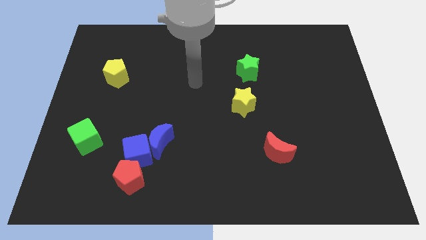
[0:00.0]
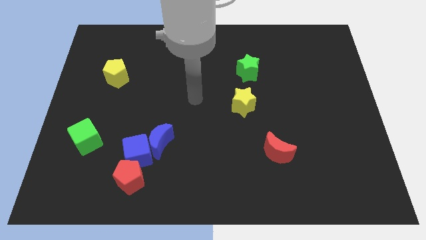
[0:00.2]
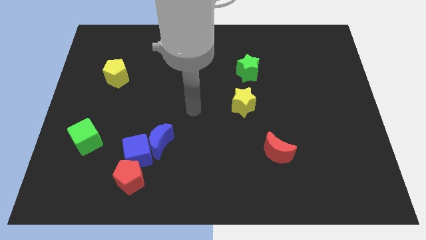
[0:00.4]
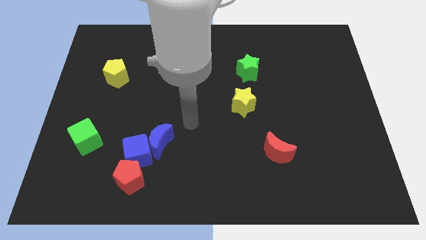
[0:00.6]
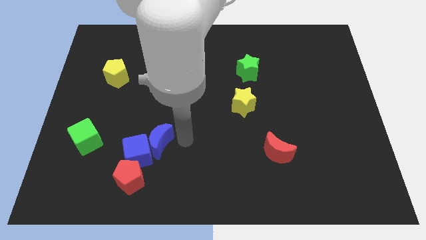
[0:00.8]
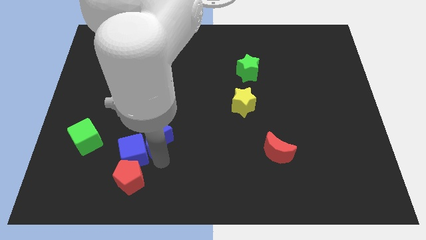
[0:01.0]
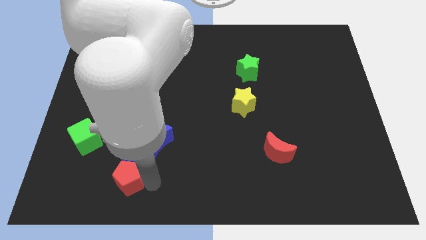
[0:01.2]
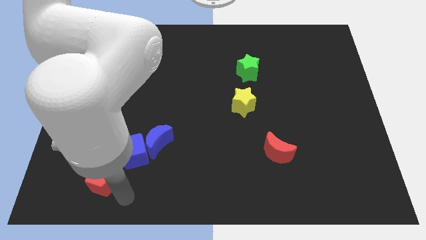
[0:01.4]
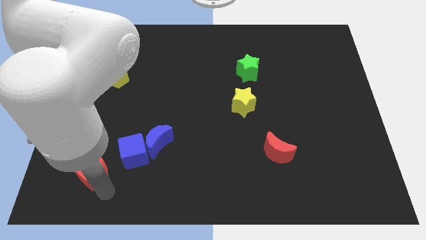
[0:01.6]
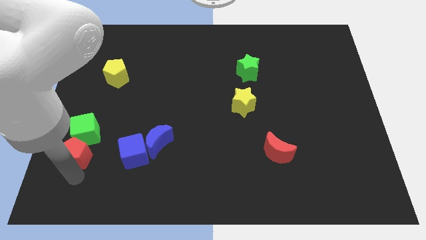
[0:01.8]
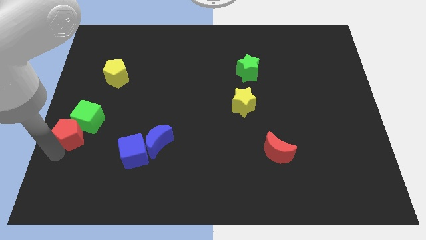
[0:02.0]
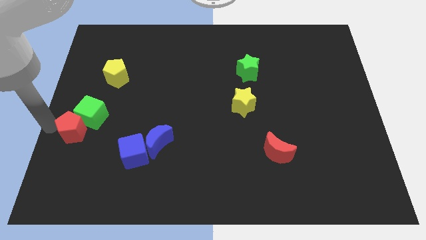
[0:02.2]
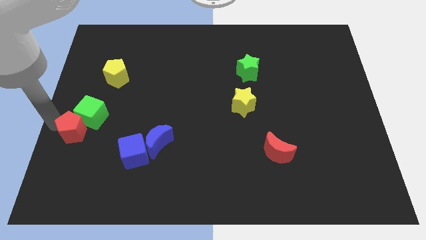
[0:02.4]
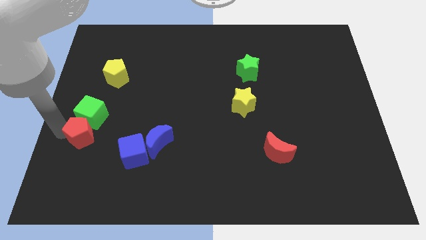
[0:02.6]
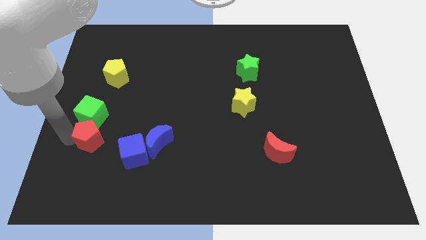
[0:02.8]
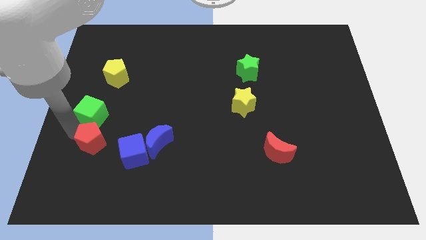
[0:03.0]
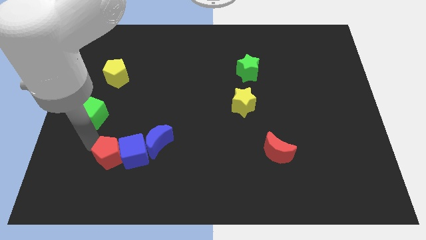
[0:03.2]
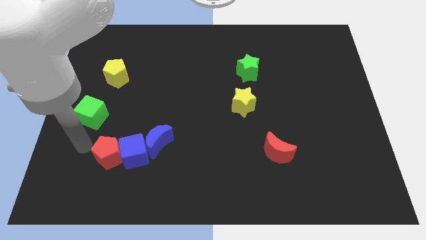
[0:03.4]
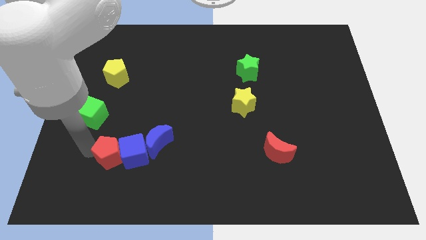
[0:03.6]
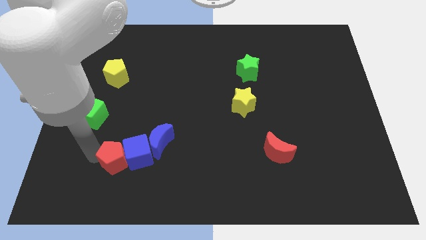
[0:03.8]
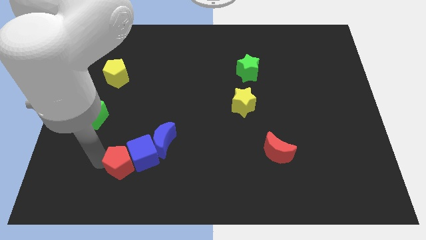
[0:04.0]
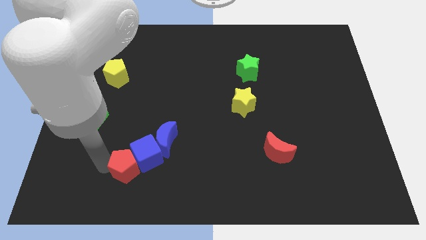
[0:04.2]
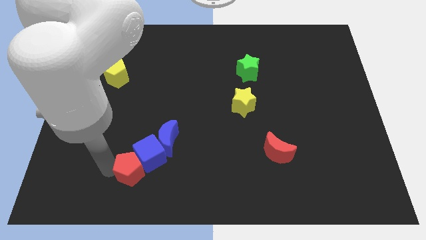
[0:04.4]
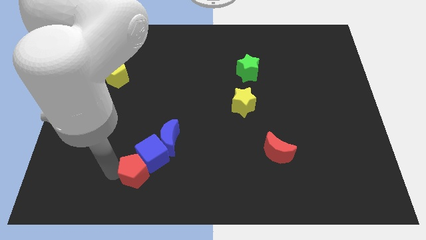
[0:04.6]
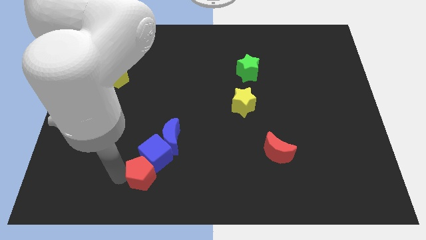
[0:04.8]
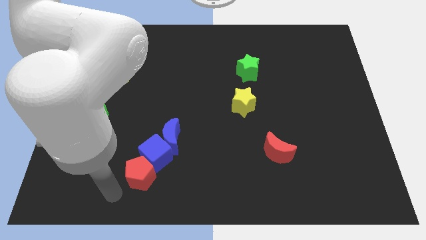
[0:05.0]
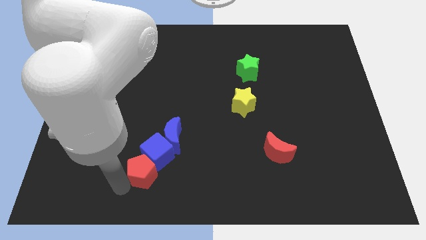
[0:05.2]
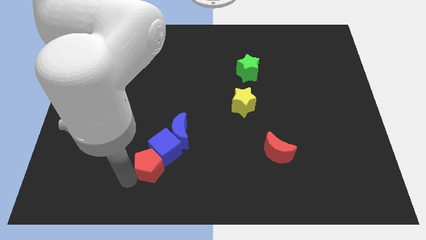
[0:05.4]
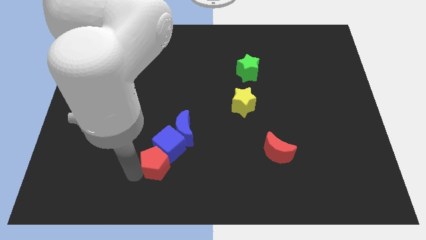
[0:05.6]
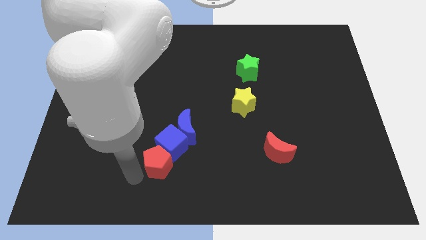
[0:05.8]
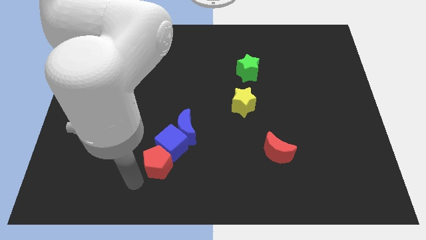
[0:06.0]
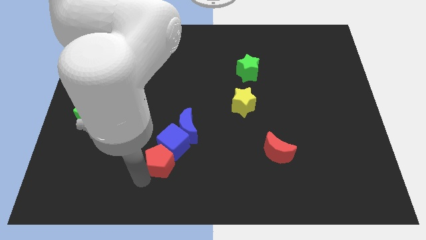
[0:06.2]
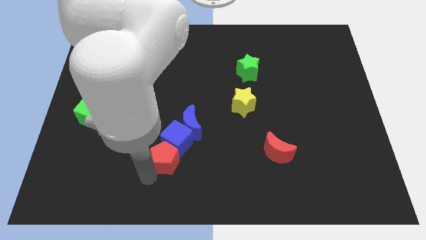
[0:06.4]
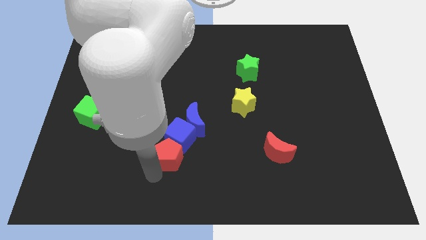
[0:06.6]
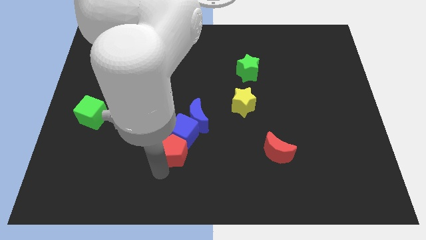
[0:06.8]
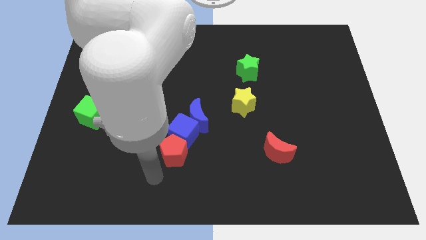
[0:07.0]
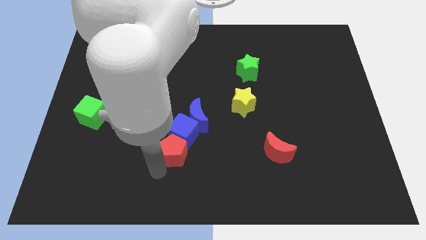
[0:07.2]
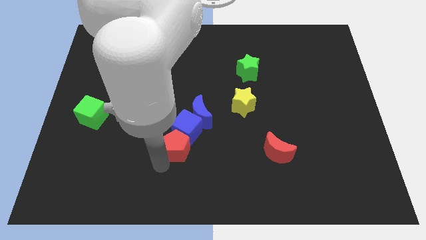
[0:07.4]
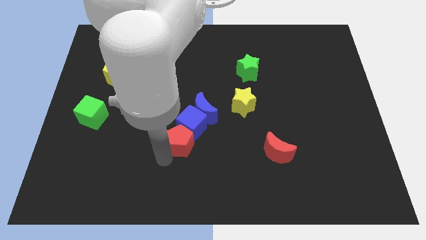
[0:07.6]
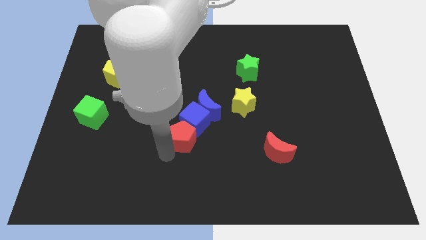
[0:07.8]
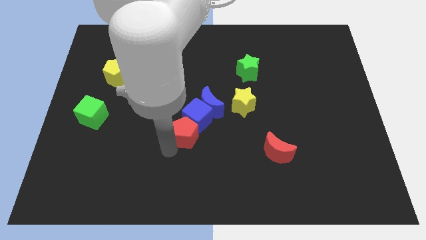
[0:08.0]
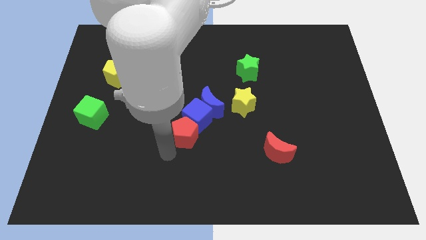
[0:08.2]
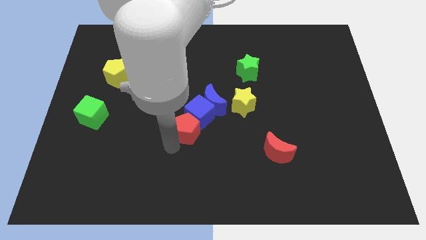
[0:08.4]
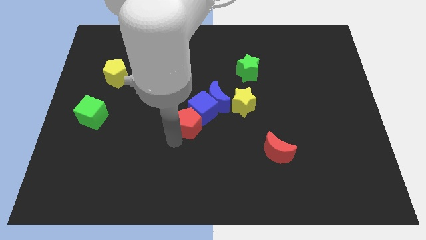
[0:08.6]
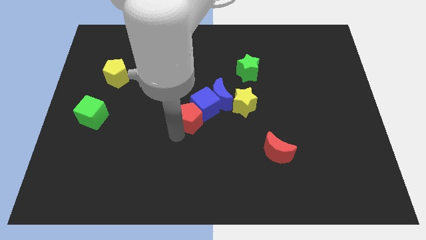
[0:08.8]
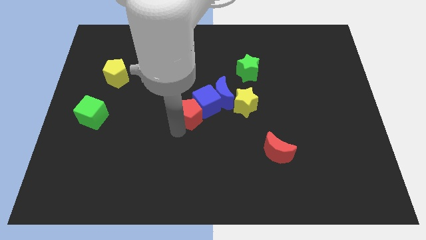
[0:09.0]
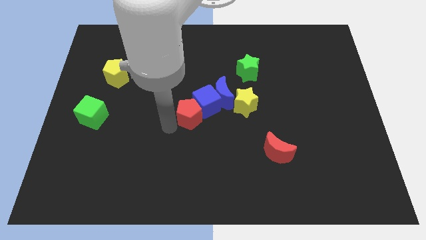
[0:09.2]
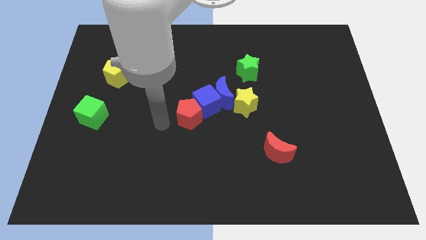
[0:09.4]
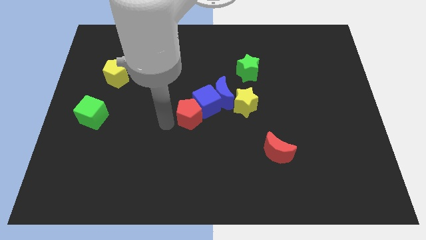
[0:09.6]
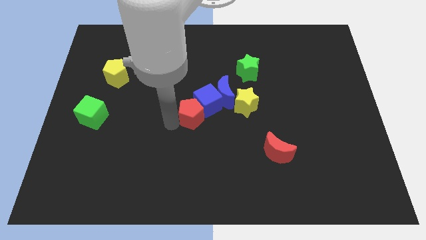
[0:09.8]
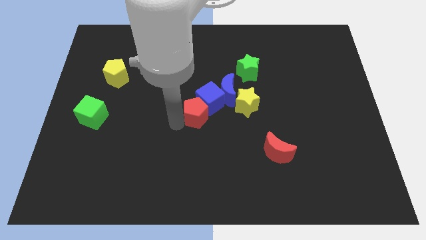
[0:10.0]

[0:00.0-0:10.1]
push the red pentagon up and right

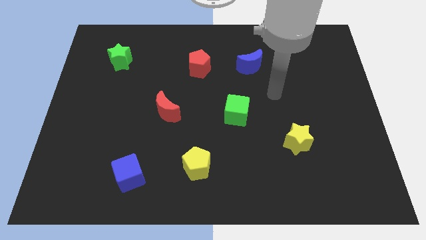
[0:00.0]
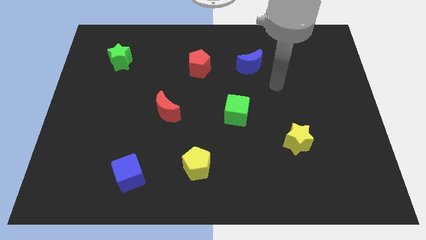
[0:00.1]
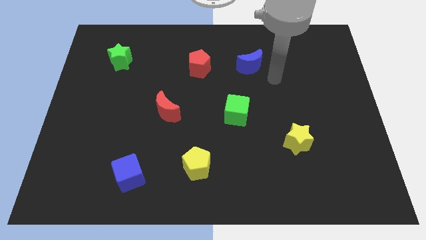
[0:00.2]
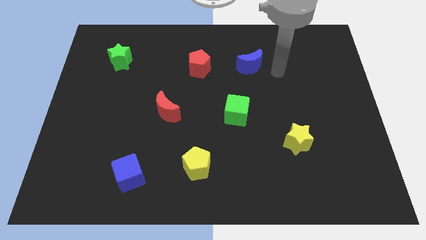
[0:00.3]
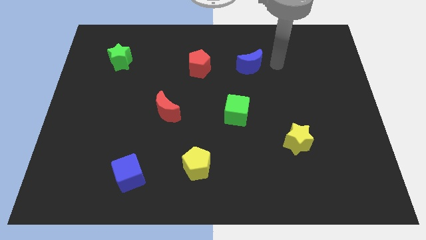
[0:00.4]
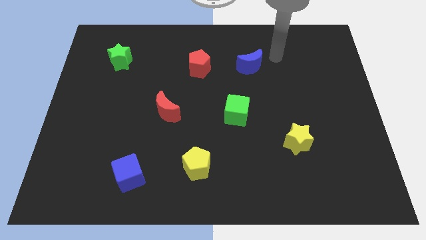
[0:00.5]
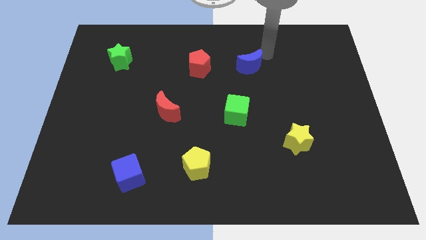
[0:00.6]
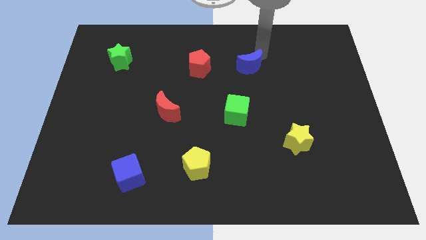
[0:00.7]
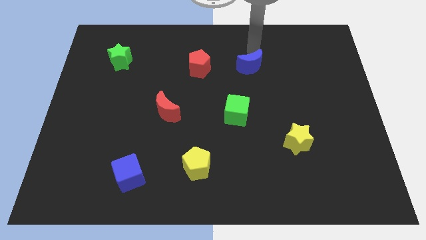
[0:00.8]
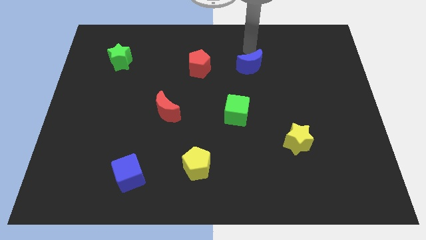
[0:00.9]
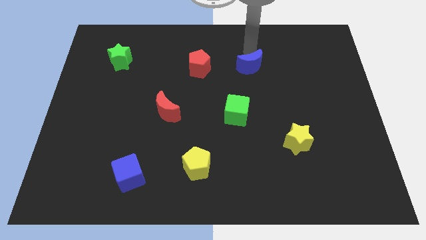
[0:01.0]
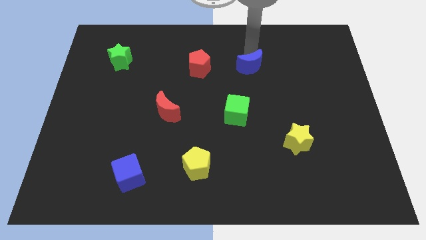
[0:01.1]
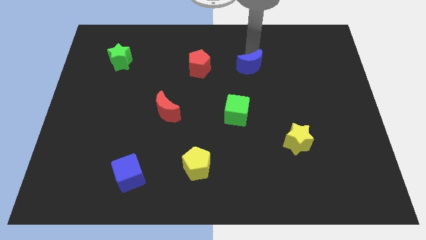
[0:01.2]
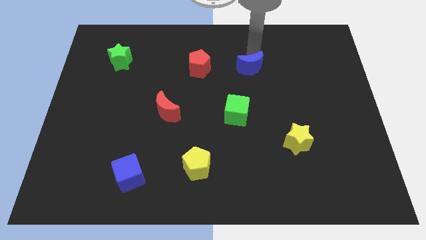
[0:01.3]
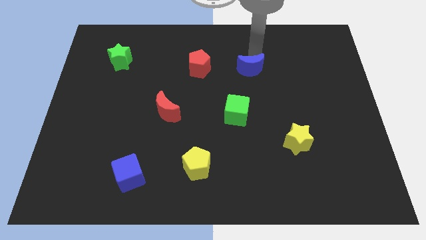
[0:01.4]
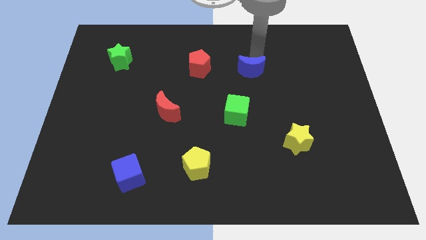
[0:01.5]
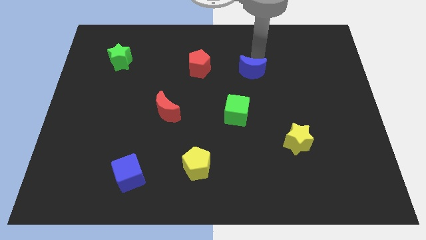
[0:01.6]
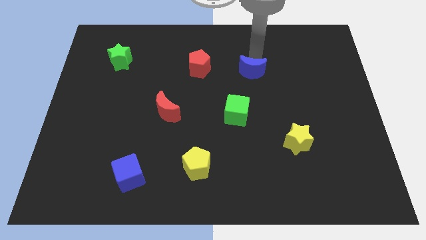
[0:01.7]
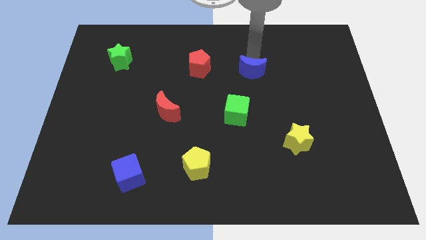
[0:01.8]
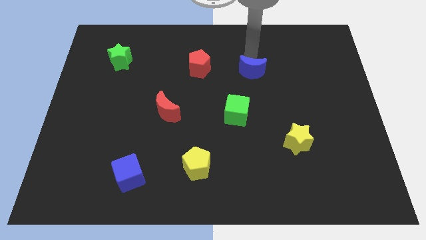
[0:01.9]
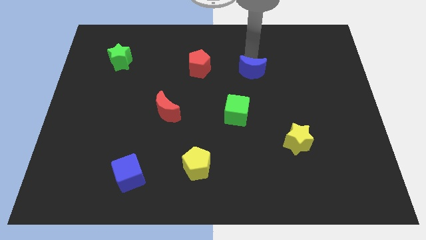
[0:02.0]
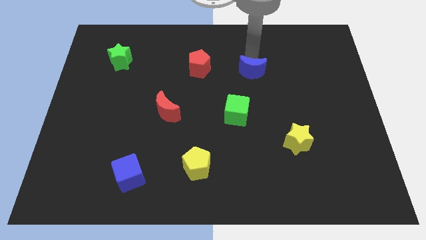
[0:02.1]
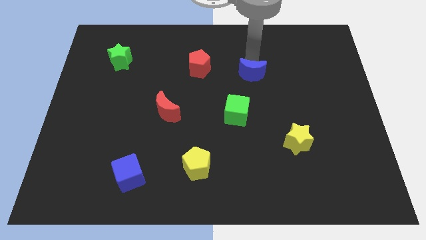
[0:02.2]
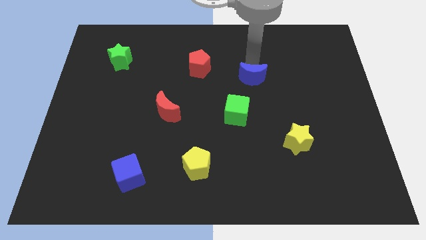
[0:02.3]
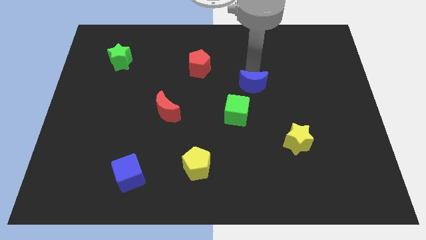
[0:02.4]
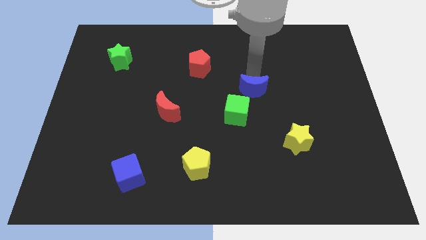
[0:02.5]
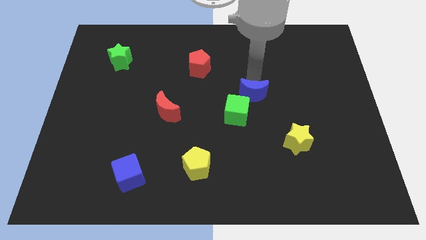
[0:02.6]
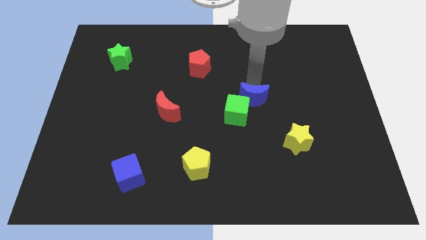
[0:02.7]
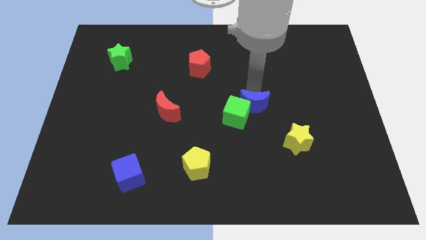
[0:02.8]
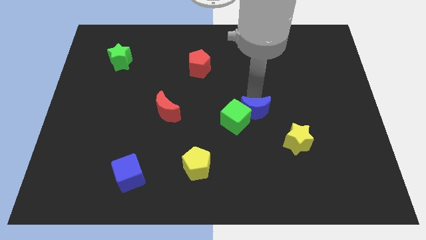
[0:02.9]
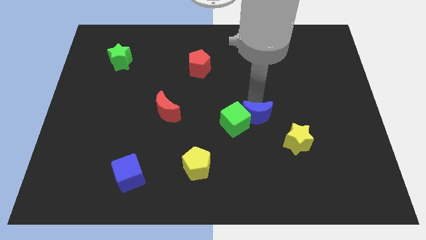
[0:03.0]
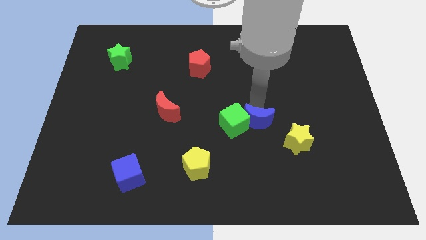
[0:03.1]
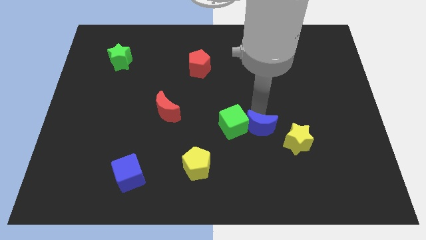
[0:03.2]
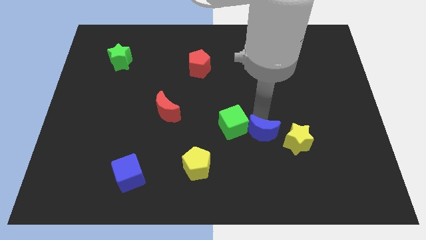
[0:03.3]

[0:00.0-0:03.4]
push the blue moon downwards
